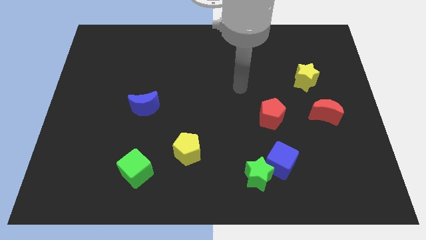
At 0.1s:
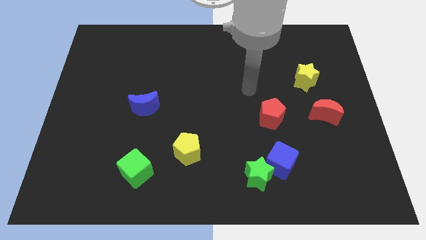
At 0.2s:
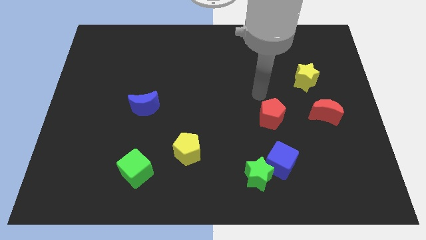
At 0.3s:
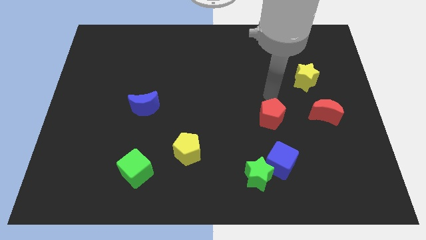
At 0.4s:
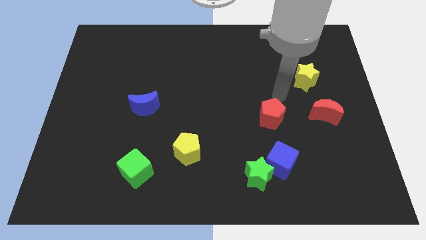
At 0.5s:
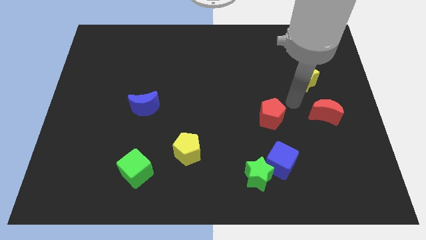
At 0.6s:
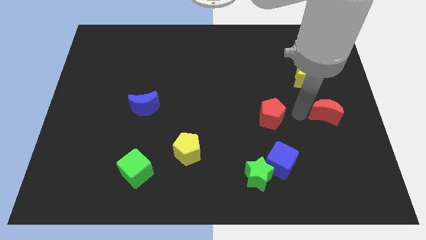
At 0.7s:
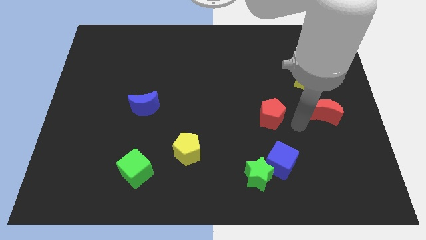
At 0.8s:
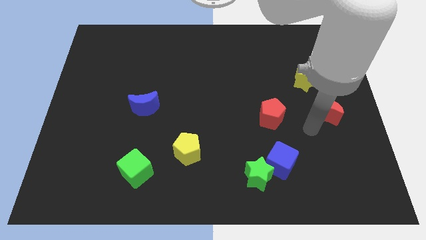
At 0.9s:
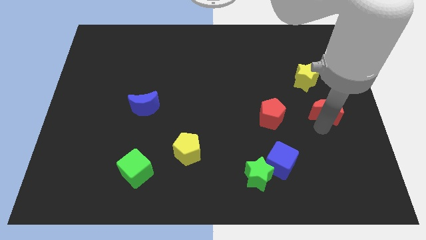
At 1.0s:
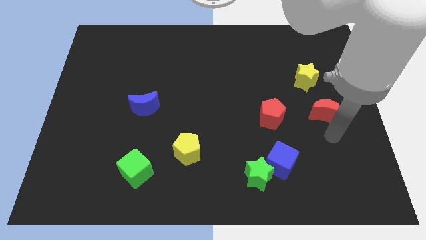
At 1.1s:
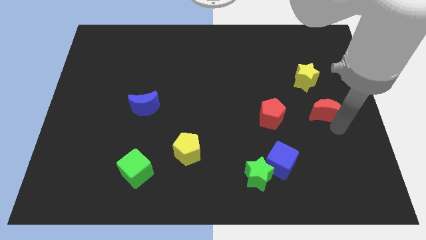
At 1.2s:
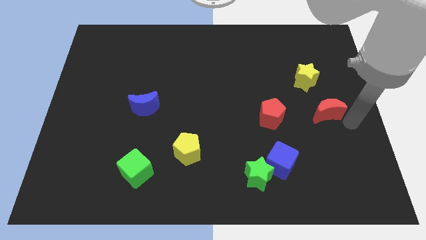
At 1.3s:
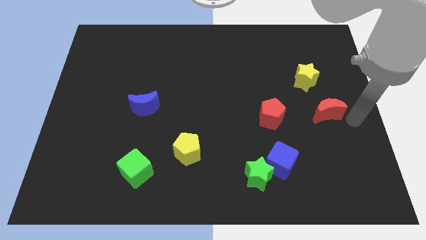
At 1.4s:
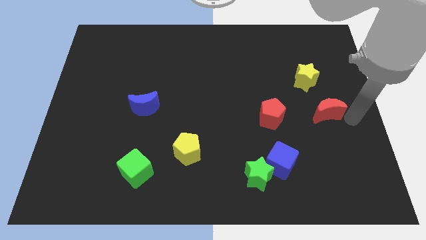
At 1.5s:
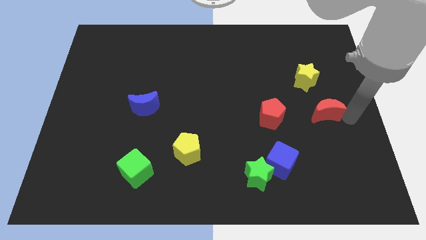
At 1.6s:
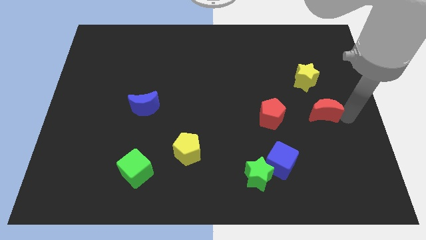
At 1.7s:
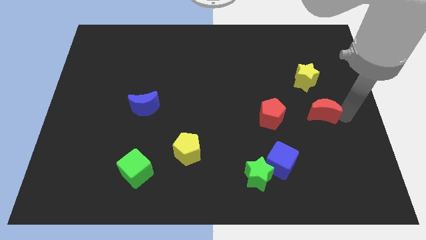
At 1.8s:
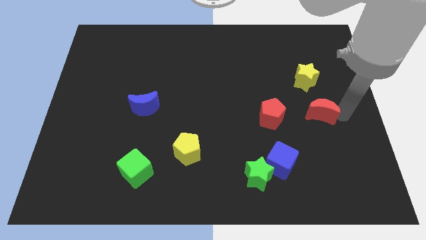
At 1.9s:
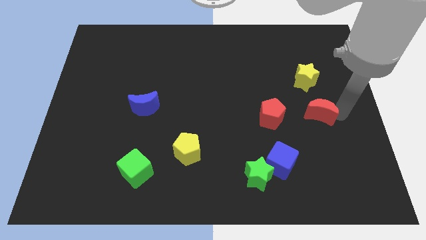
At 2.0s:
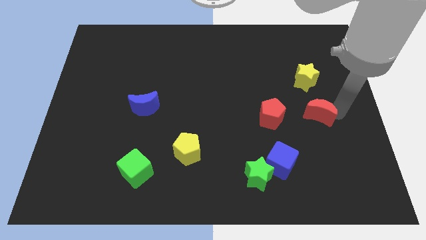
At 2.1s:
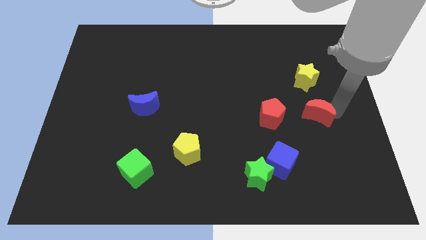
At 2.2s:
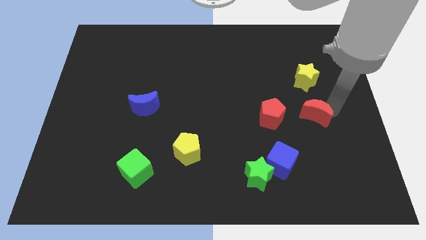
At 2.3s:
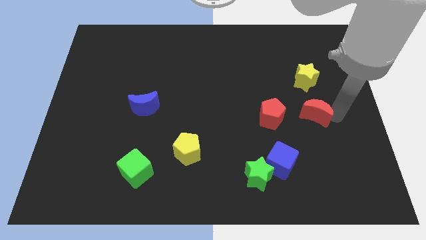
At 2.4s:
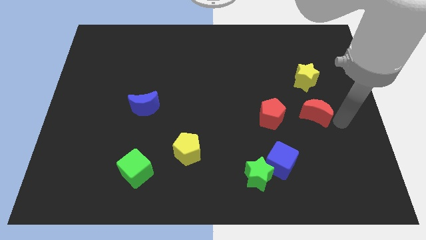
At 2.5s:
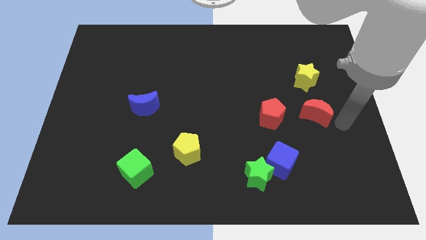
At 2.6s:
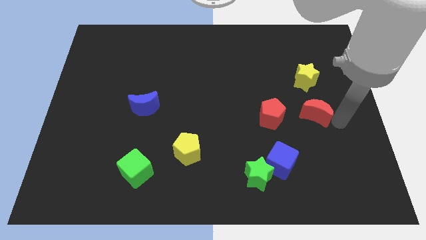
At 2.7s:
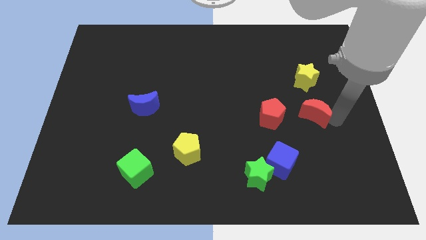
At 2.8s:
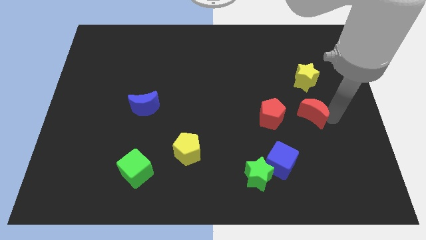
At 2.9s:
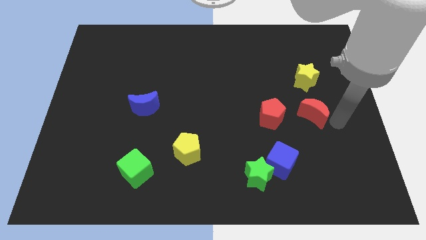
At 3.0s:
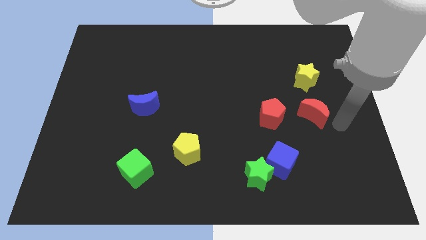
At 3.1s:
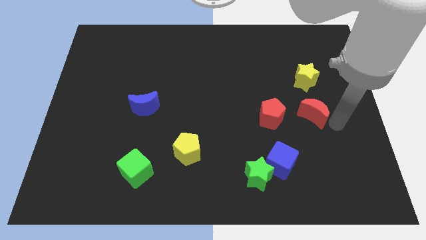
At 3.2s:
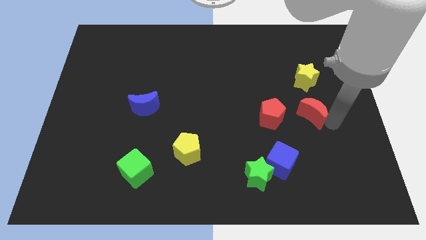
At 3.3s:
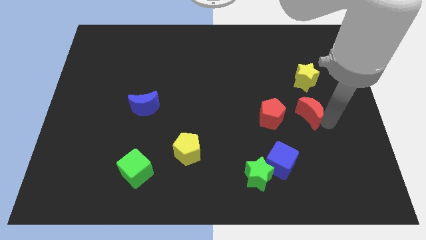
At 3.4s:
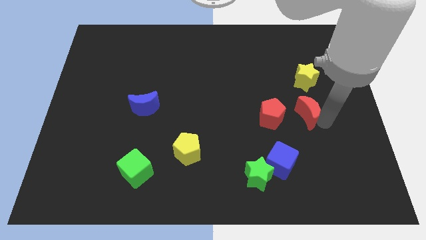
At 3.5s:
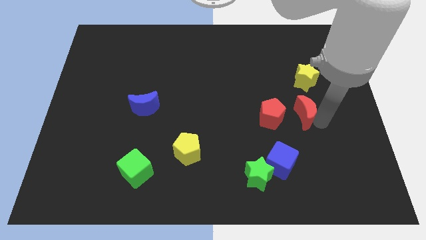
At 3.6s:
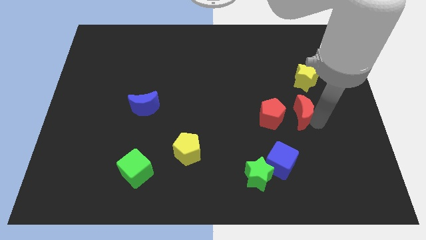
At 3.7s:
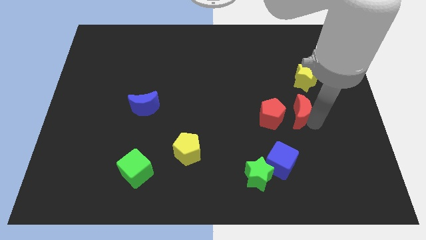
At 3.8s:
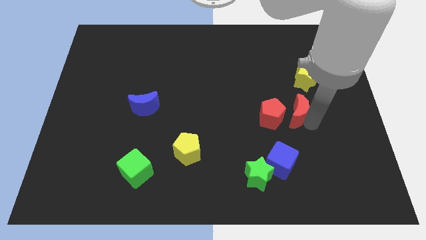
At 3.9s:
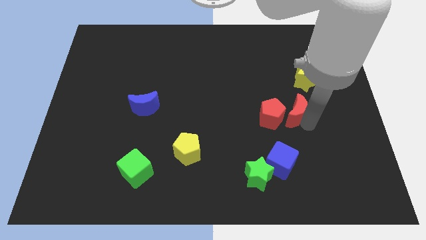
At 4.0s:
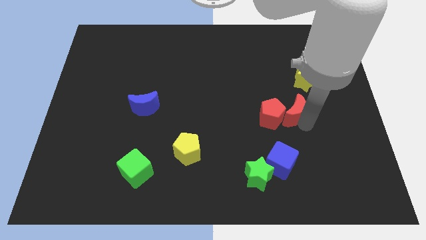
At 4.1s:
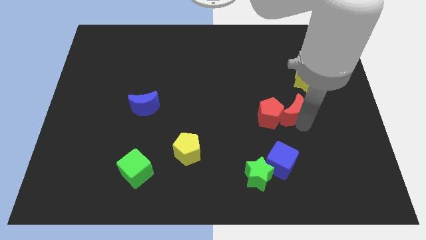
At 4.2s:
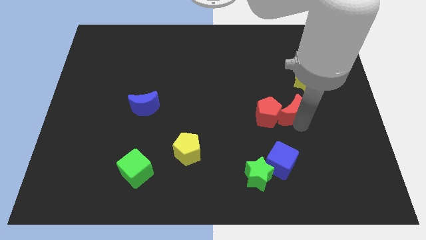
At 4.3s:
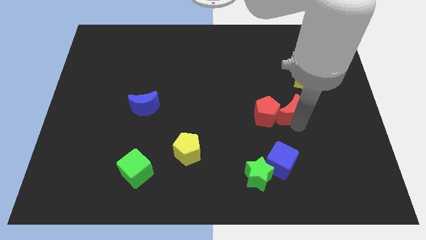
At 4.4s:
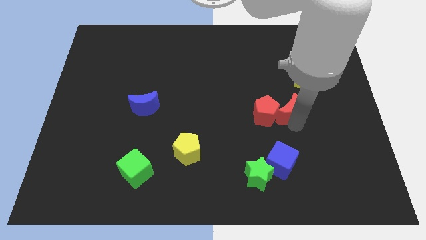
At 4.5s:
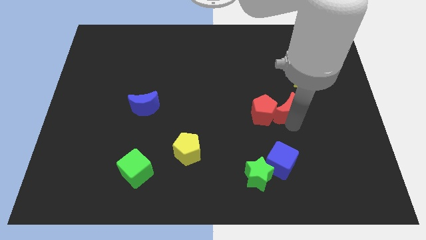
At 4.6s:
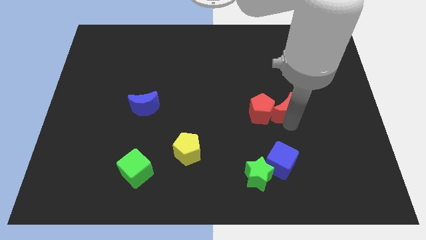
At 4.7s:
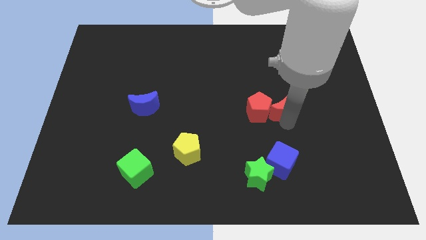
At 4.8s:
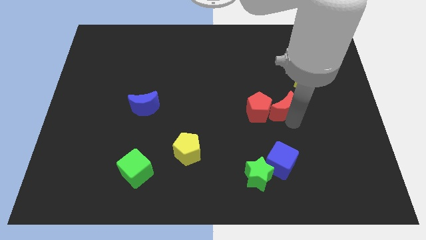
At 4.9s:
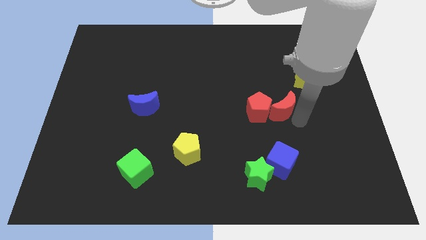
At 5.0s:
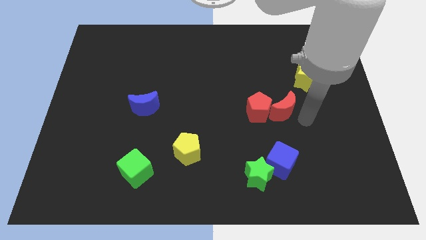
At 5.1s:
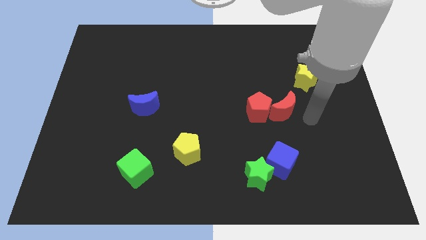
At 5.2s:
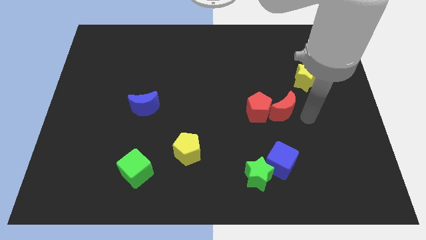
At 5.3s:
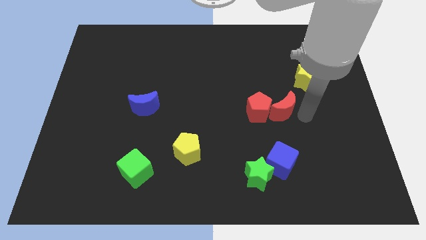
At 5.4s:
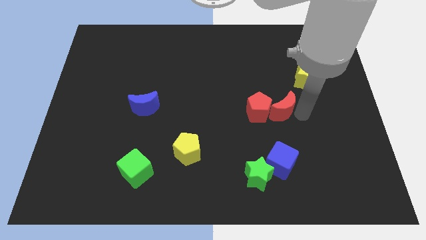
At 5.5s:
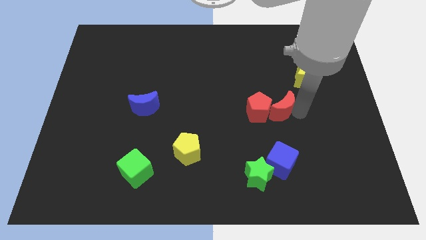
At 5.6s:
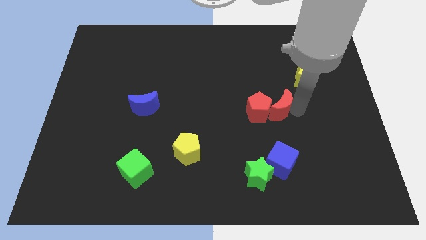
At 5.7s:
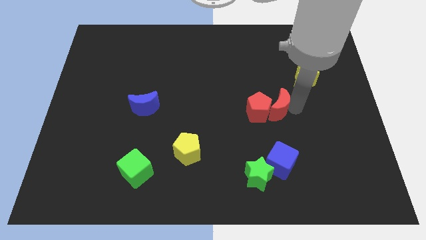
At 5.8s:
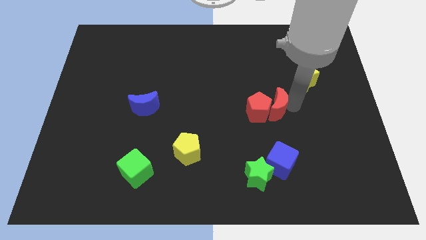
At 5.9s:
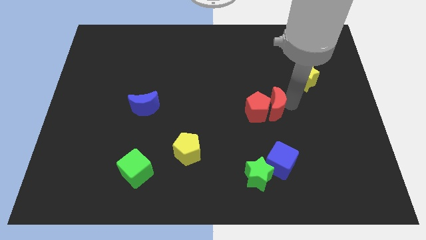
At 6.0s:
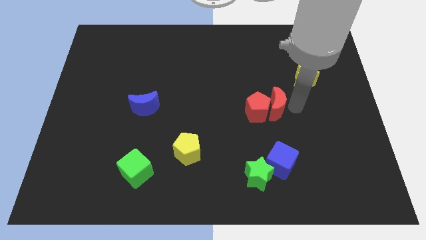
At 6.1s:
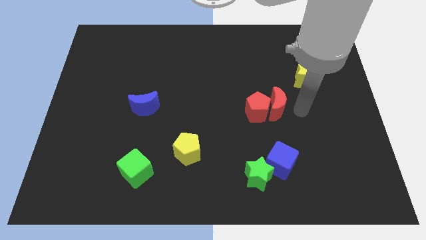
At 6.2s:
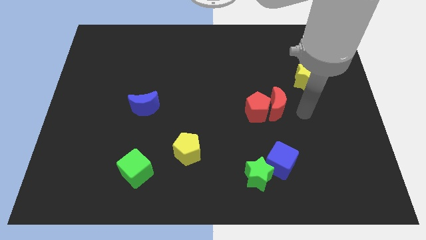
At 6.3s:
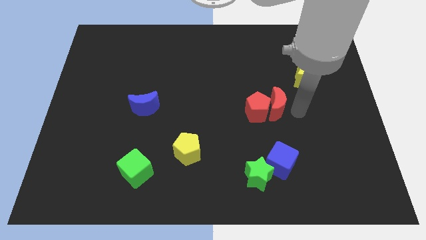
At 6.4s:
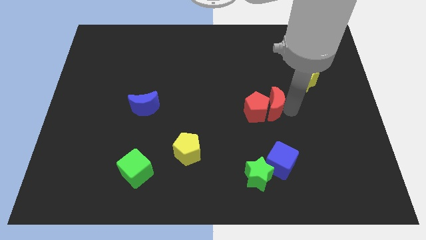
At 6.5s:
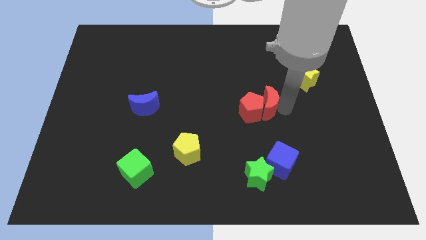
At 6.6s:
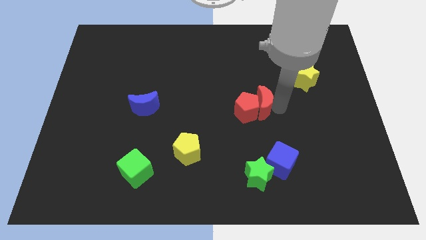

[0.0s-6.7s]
move the red moon to the center

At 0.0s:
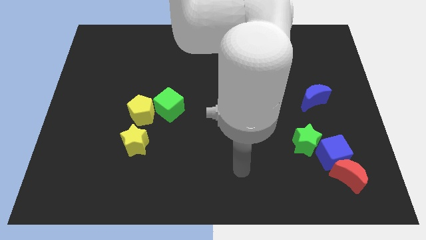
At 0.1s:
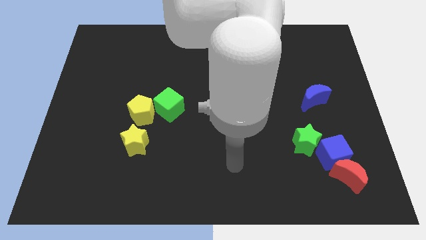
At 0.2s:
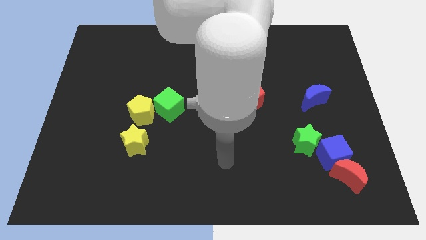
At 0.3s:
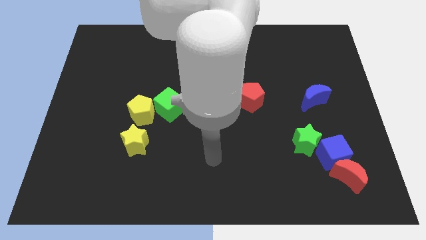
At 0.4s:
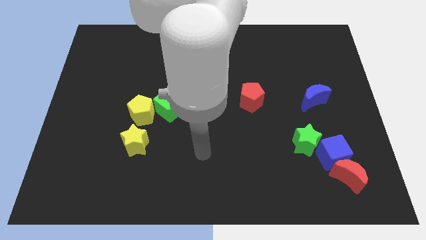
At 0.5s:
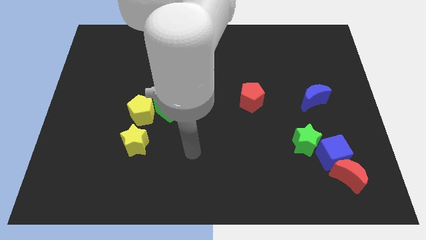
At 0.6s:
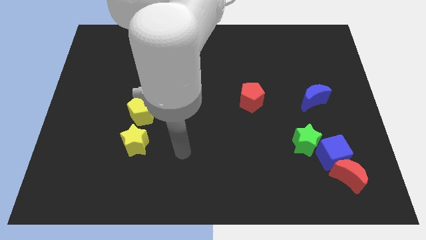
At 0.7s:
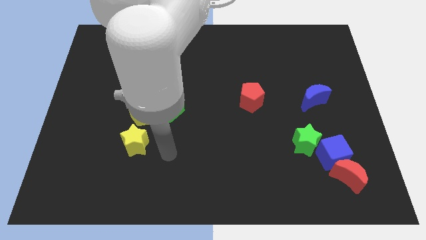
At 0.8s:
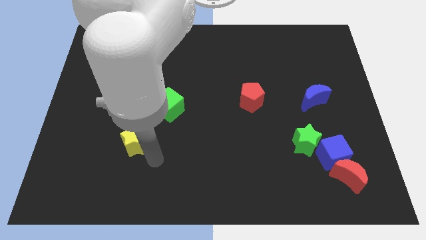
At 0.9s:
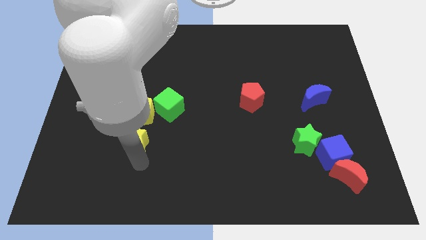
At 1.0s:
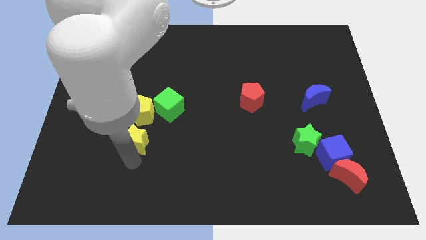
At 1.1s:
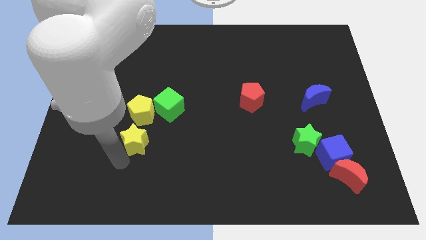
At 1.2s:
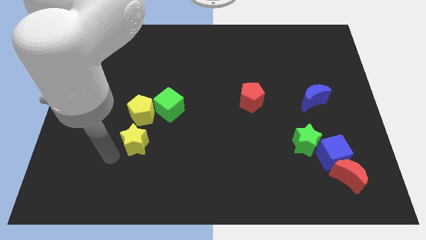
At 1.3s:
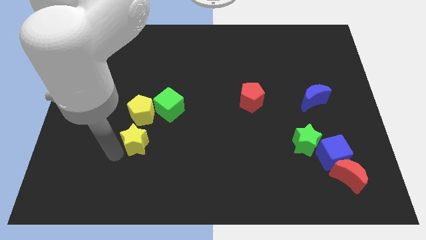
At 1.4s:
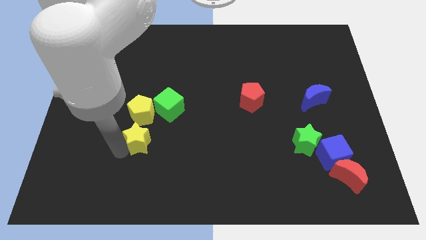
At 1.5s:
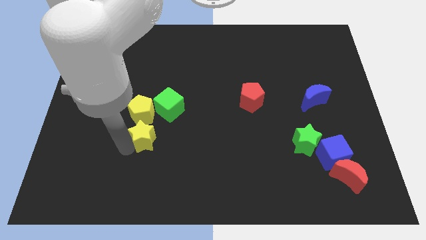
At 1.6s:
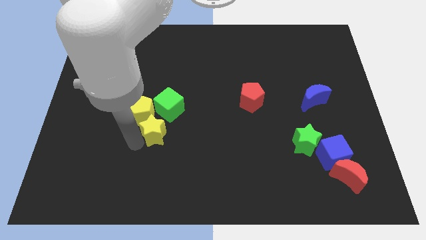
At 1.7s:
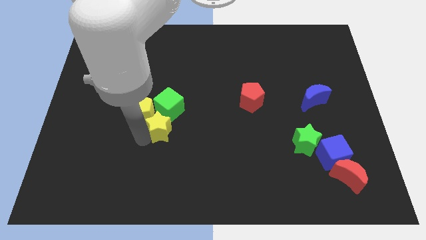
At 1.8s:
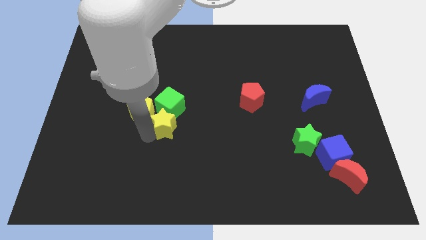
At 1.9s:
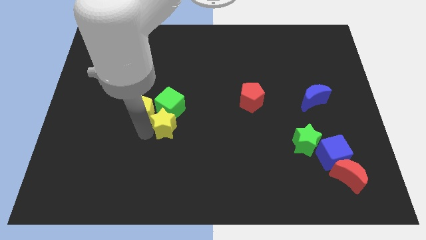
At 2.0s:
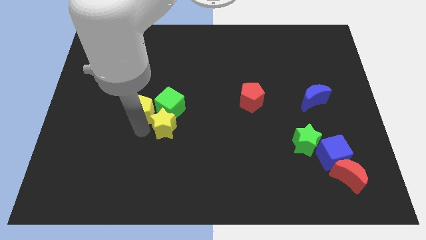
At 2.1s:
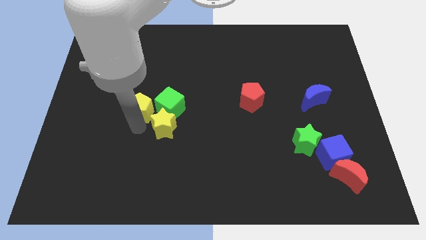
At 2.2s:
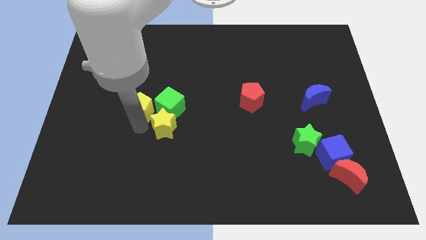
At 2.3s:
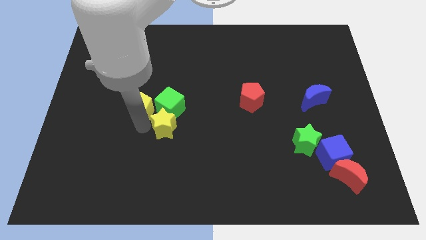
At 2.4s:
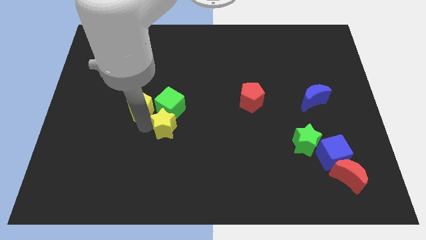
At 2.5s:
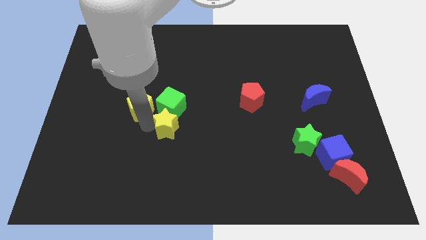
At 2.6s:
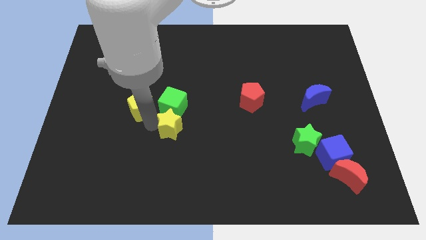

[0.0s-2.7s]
put the yellow star to the center of the board
